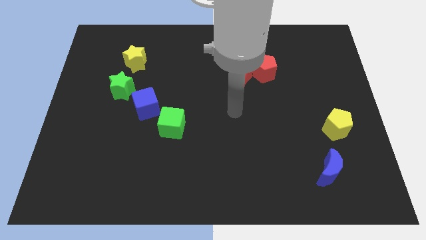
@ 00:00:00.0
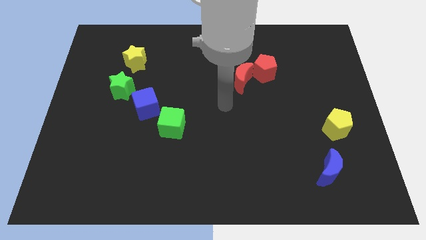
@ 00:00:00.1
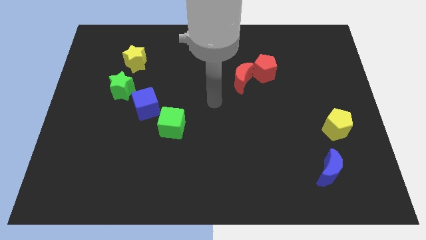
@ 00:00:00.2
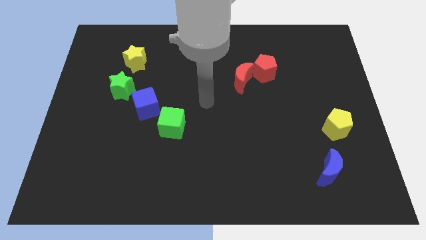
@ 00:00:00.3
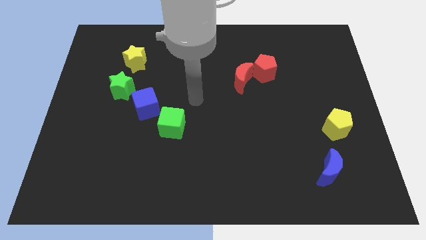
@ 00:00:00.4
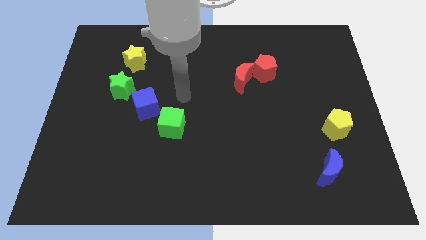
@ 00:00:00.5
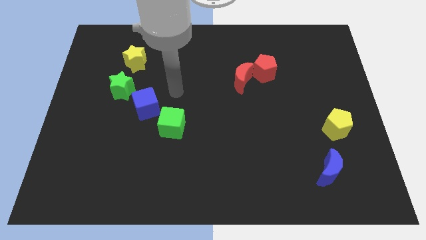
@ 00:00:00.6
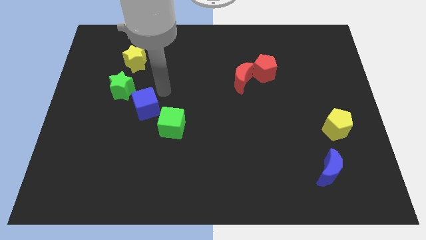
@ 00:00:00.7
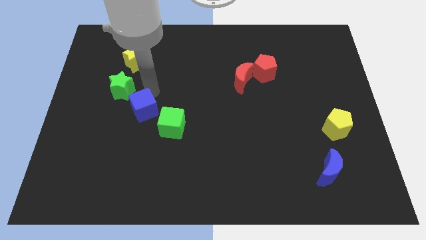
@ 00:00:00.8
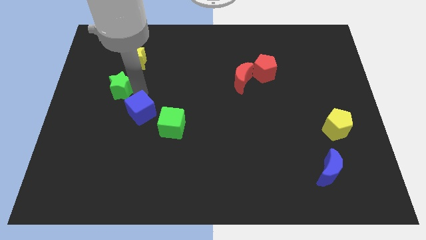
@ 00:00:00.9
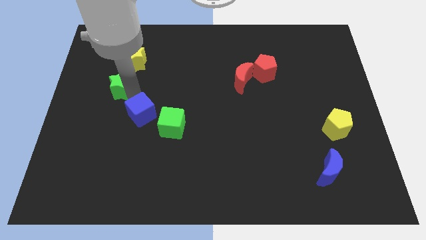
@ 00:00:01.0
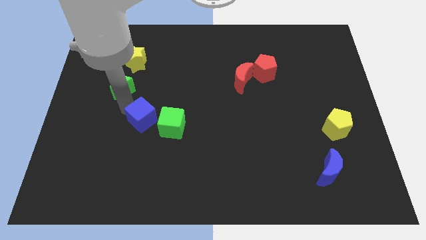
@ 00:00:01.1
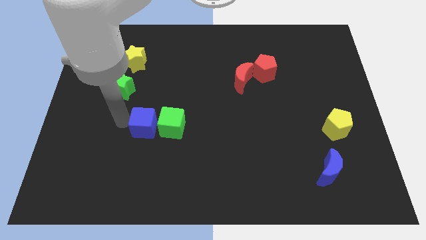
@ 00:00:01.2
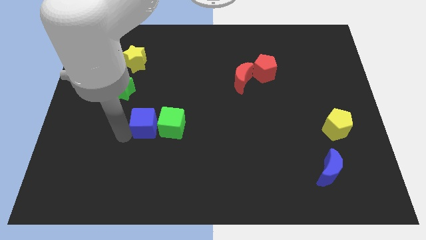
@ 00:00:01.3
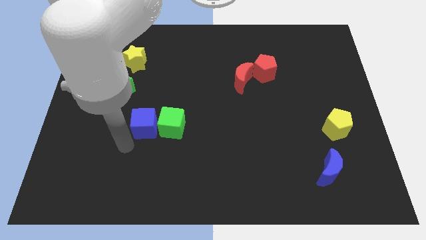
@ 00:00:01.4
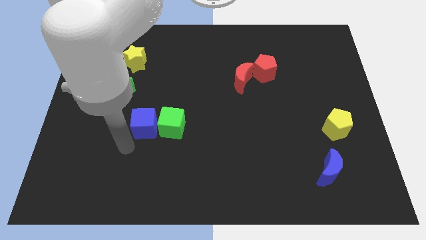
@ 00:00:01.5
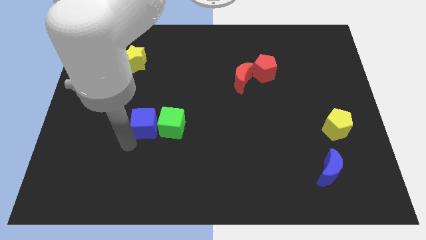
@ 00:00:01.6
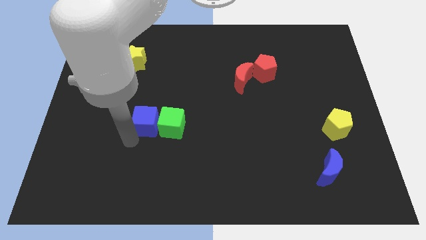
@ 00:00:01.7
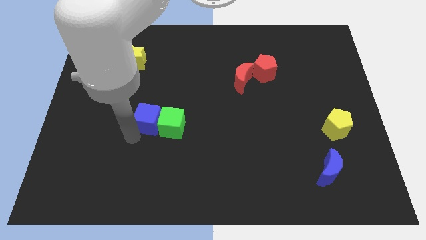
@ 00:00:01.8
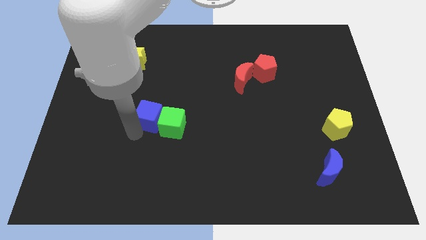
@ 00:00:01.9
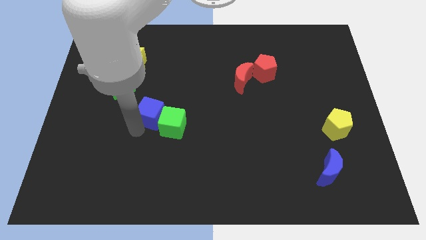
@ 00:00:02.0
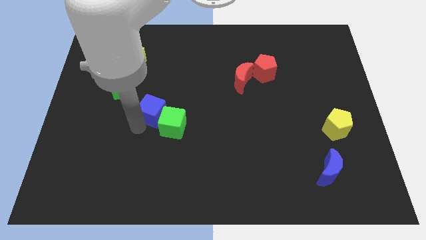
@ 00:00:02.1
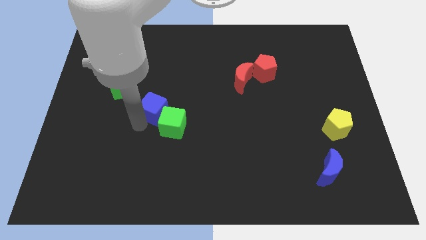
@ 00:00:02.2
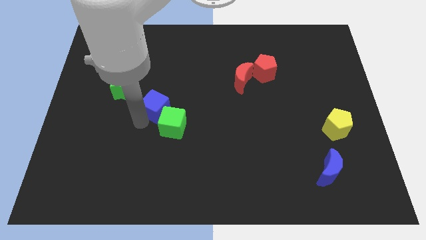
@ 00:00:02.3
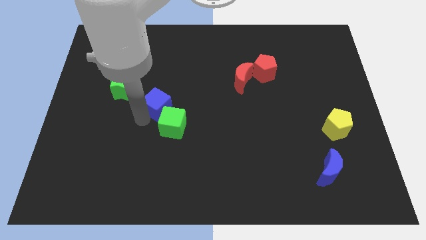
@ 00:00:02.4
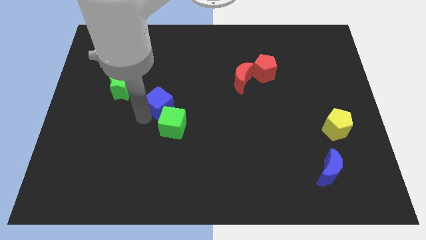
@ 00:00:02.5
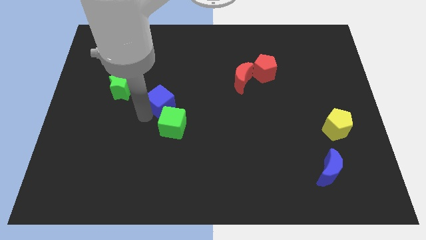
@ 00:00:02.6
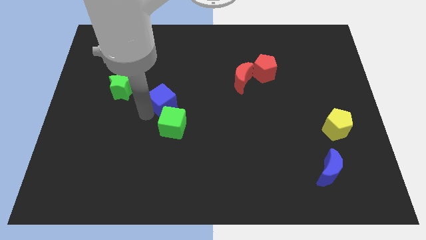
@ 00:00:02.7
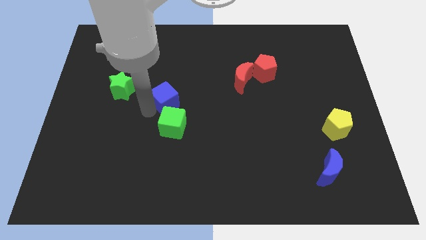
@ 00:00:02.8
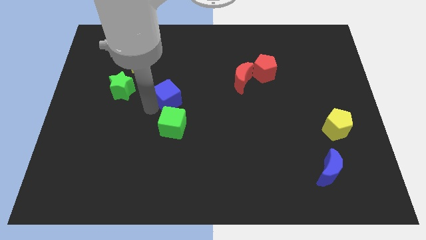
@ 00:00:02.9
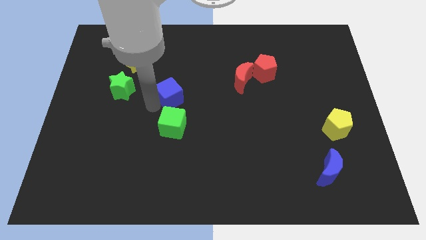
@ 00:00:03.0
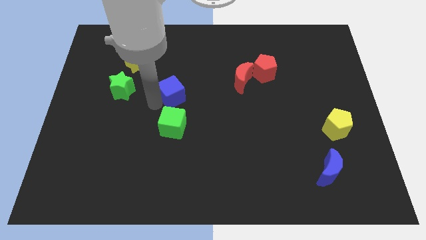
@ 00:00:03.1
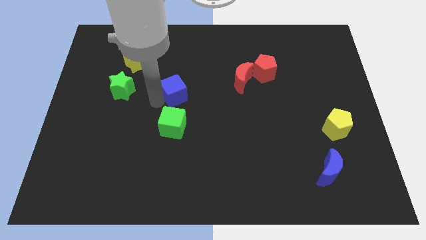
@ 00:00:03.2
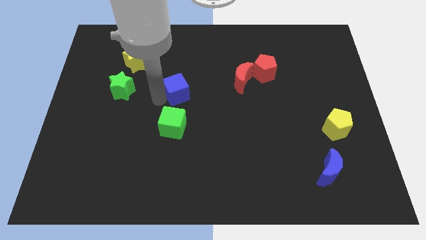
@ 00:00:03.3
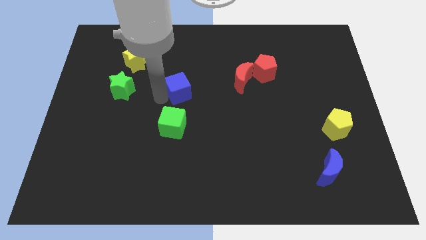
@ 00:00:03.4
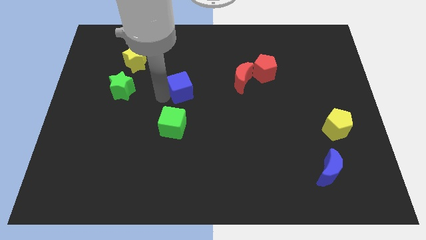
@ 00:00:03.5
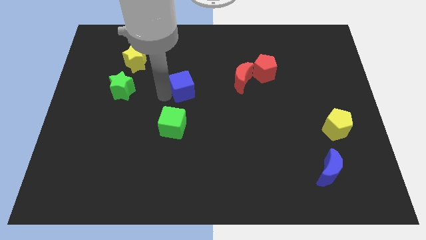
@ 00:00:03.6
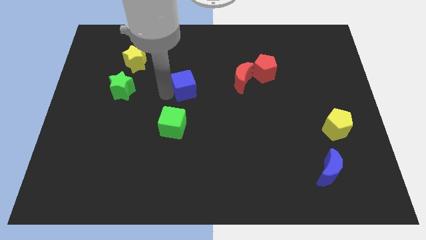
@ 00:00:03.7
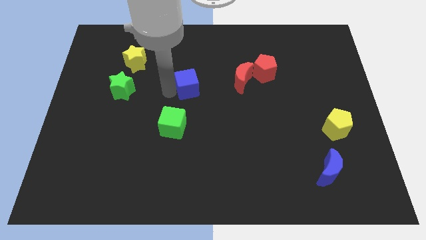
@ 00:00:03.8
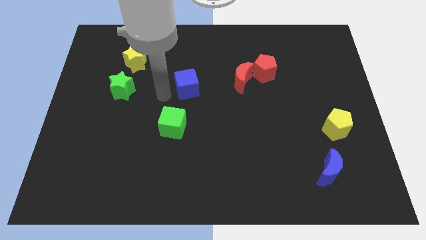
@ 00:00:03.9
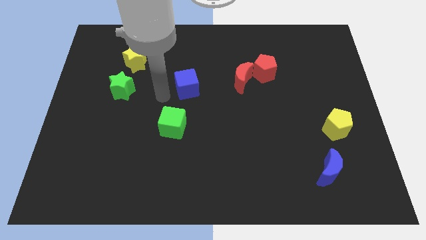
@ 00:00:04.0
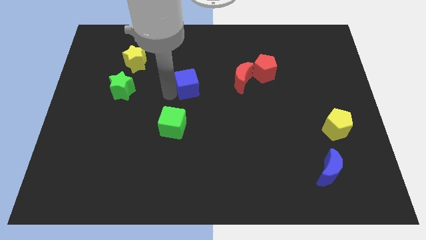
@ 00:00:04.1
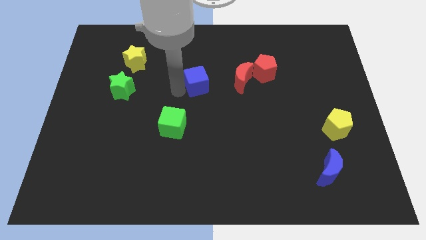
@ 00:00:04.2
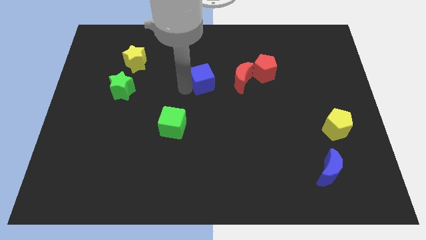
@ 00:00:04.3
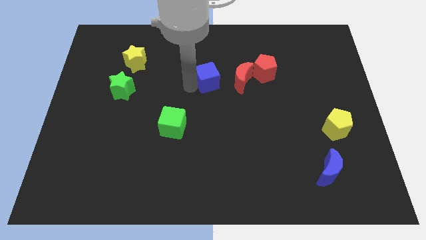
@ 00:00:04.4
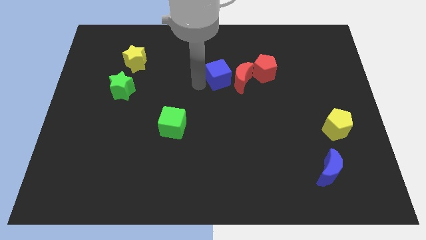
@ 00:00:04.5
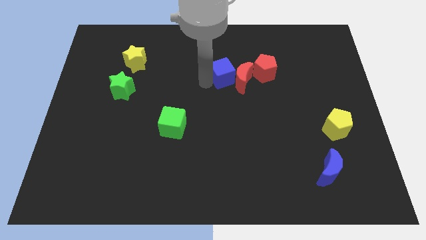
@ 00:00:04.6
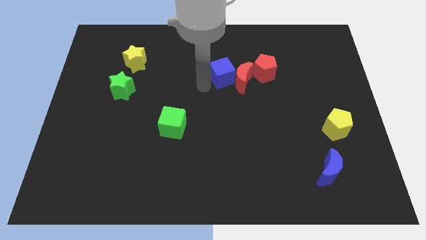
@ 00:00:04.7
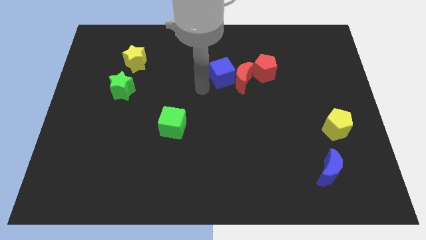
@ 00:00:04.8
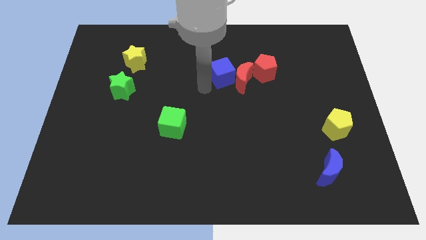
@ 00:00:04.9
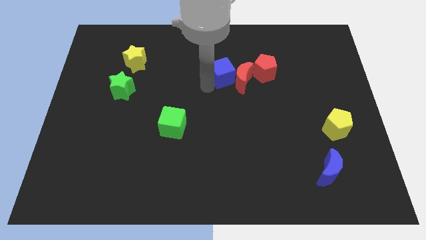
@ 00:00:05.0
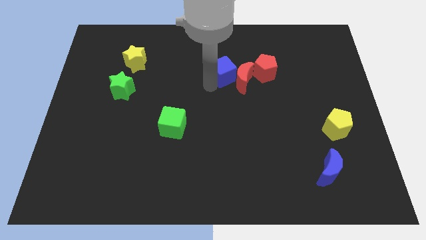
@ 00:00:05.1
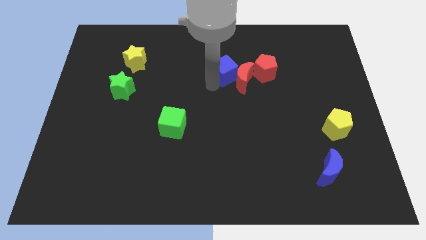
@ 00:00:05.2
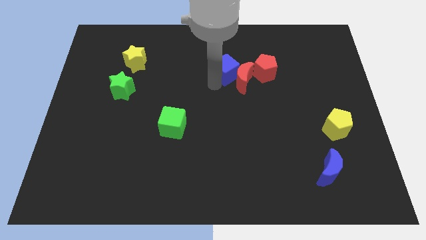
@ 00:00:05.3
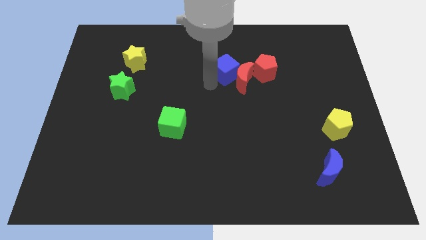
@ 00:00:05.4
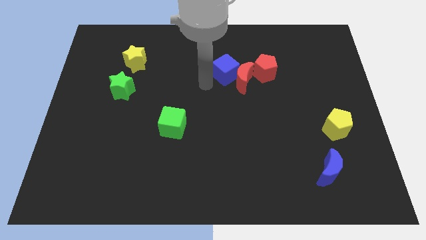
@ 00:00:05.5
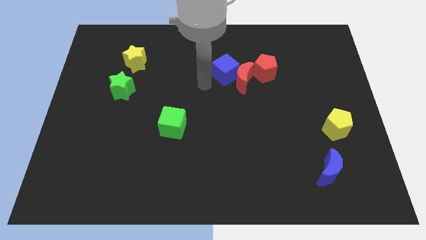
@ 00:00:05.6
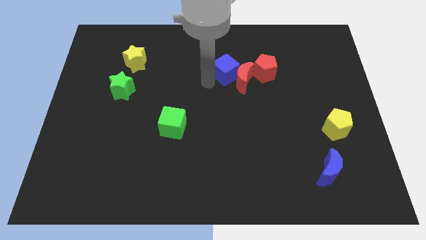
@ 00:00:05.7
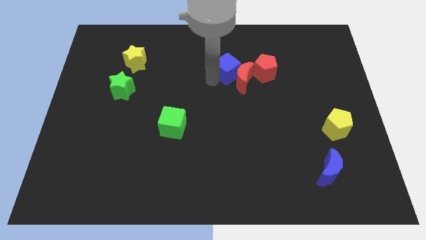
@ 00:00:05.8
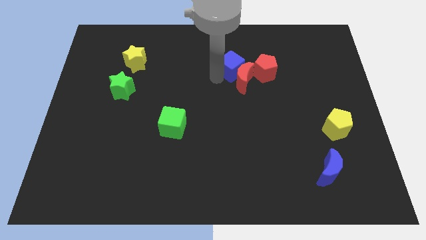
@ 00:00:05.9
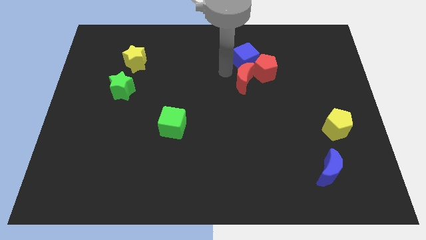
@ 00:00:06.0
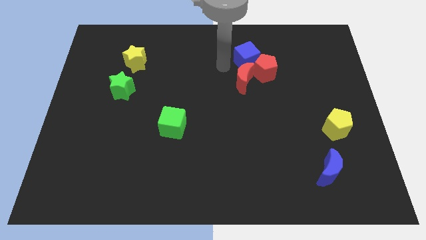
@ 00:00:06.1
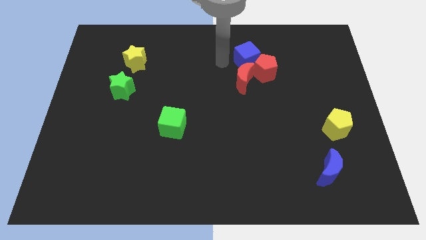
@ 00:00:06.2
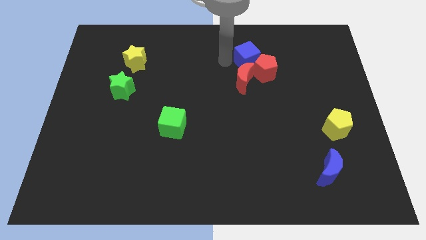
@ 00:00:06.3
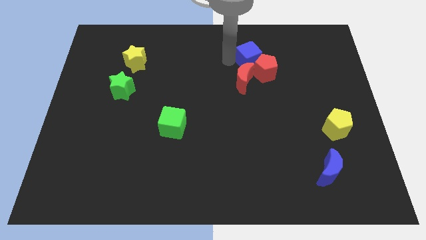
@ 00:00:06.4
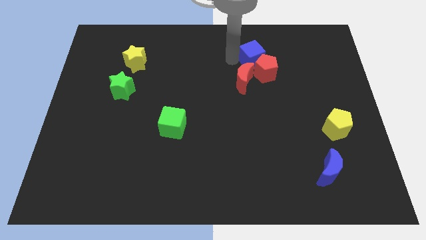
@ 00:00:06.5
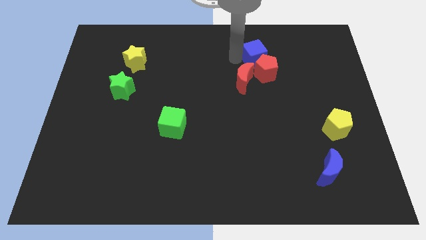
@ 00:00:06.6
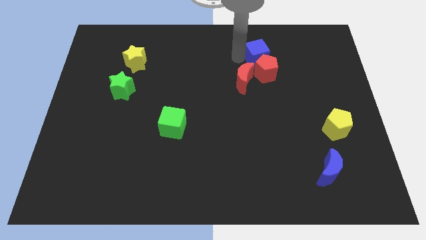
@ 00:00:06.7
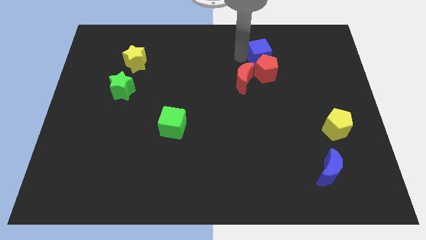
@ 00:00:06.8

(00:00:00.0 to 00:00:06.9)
slide the blue cube to the top right side of the red pentagon

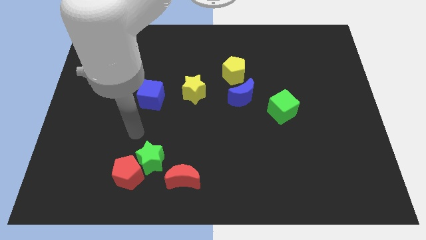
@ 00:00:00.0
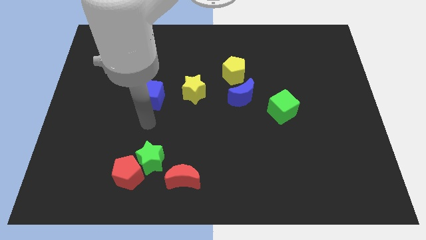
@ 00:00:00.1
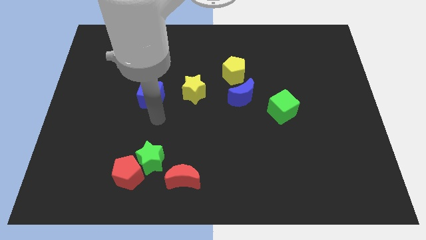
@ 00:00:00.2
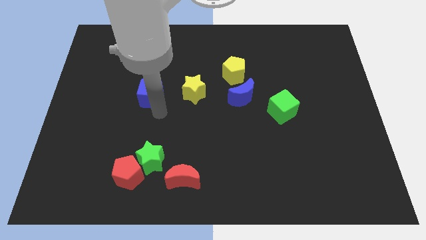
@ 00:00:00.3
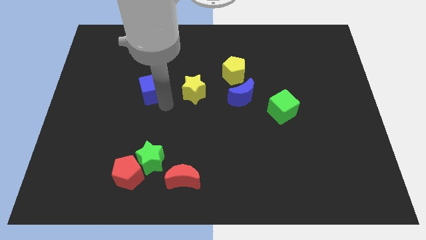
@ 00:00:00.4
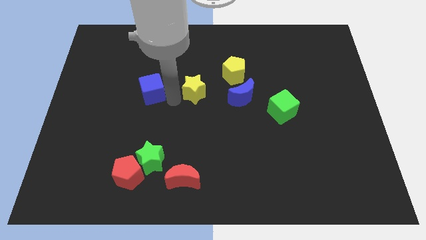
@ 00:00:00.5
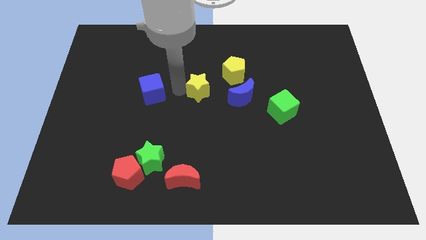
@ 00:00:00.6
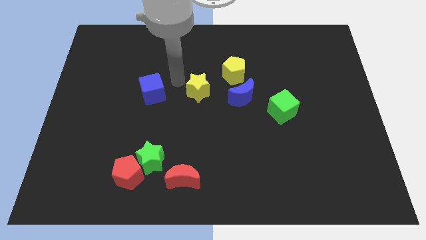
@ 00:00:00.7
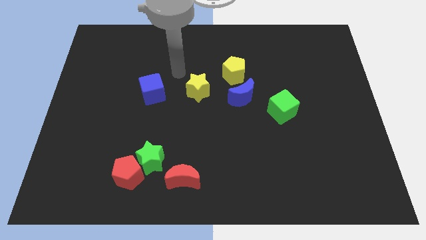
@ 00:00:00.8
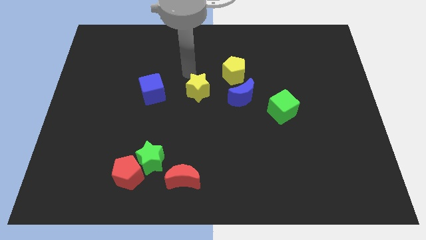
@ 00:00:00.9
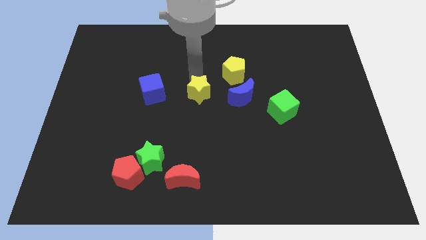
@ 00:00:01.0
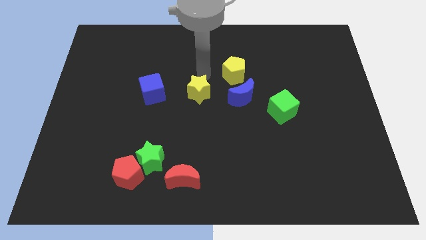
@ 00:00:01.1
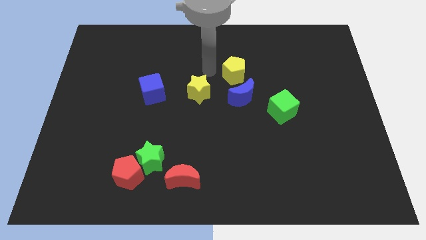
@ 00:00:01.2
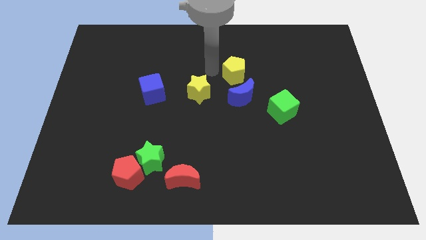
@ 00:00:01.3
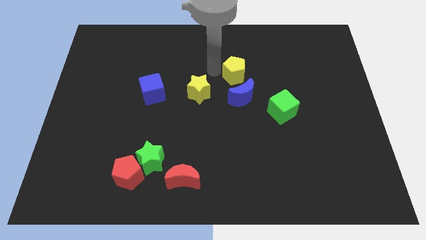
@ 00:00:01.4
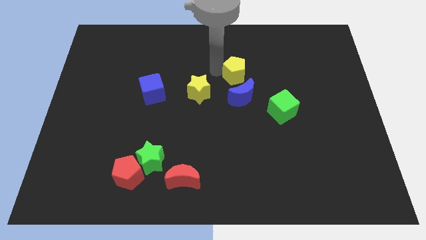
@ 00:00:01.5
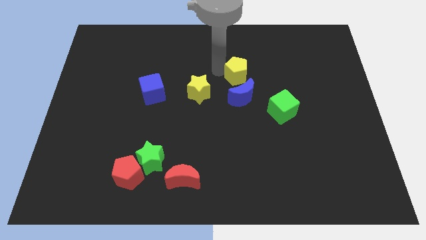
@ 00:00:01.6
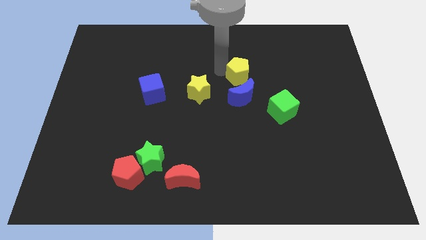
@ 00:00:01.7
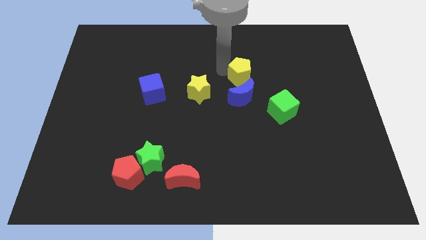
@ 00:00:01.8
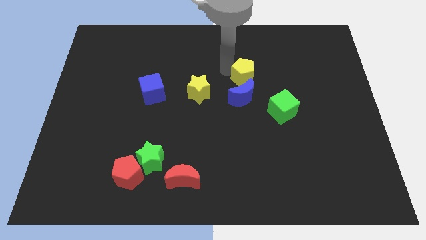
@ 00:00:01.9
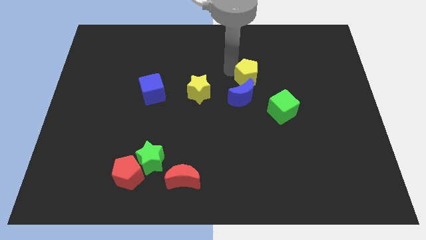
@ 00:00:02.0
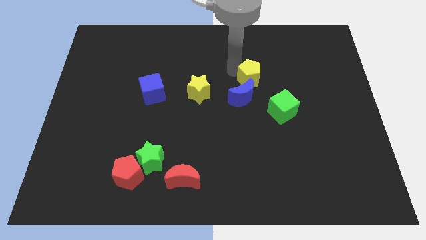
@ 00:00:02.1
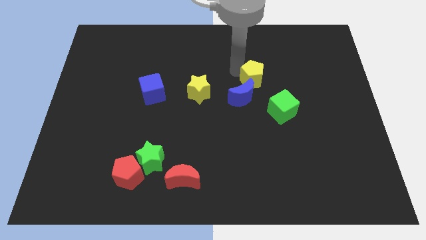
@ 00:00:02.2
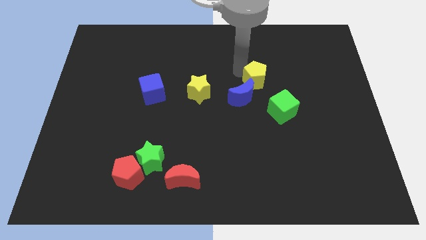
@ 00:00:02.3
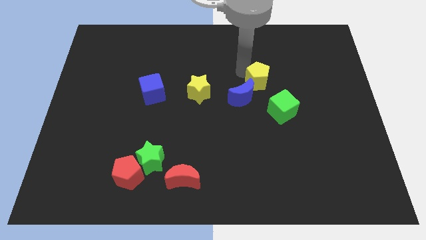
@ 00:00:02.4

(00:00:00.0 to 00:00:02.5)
slide the yellow pentagon to the top of the green cube
